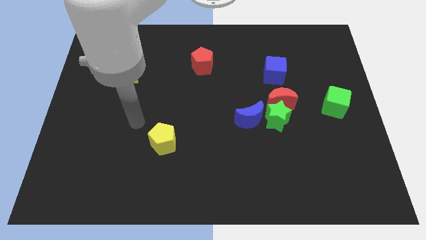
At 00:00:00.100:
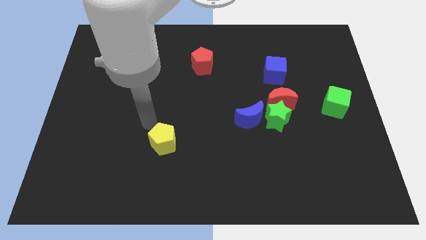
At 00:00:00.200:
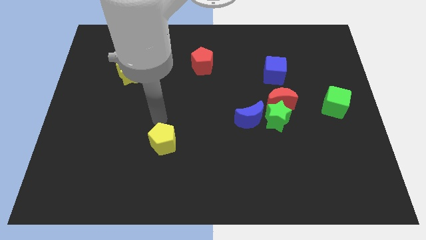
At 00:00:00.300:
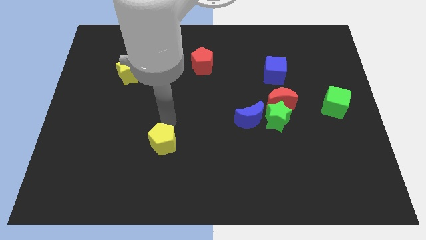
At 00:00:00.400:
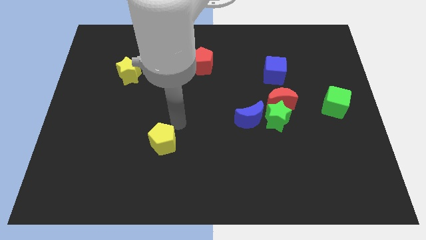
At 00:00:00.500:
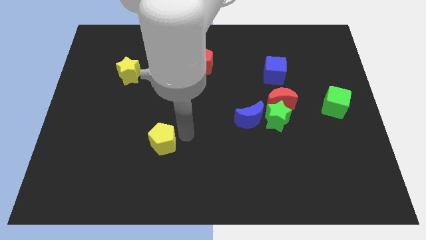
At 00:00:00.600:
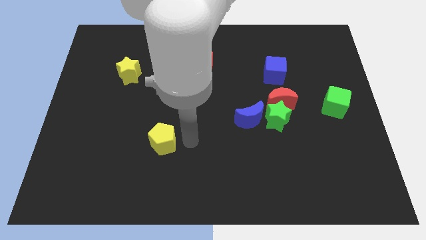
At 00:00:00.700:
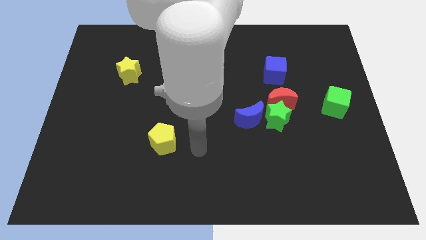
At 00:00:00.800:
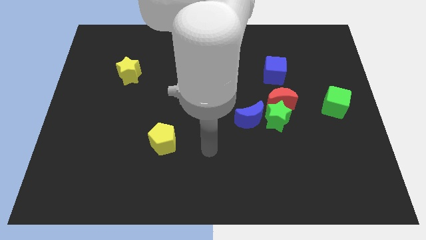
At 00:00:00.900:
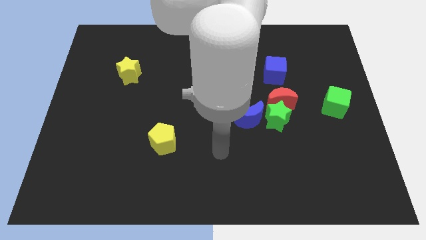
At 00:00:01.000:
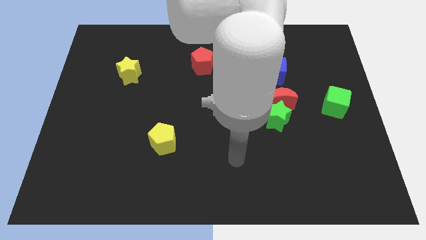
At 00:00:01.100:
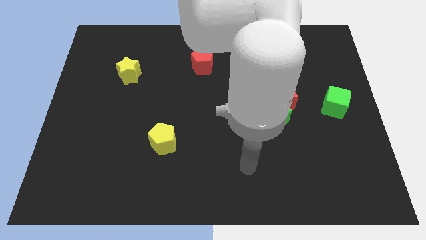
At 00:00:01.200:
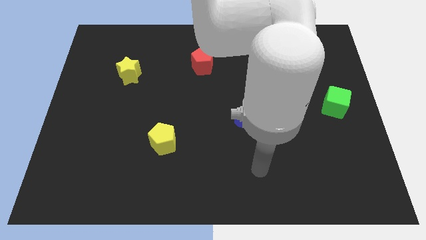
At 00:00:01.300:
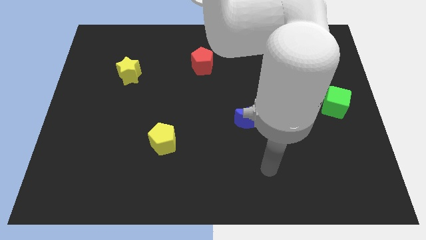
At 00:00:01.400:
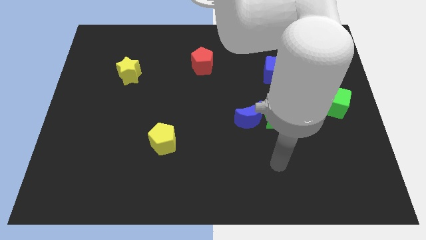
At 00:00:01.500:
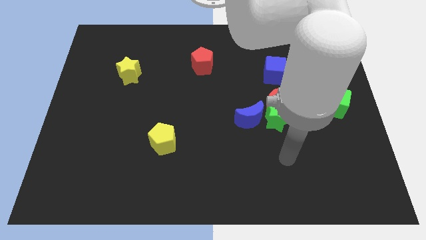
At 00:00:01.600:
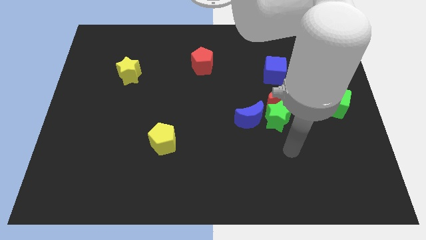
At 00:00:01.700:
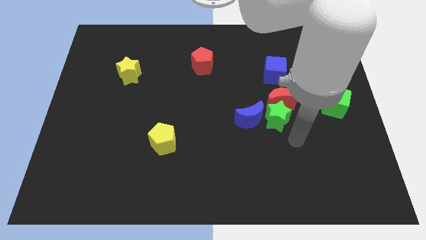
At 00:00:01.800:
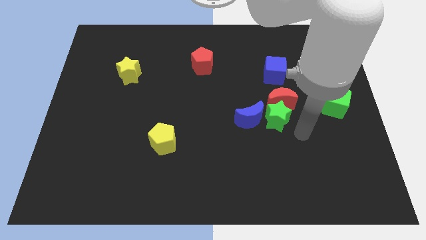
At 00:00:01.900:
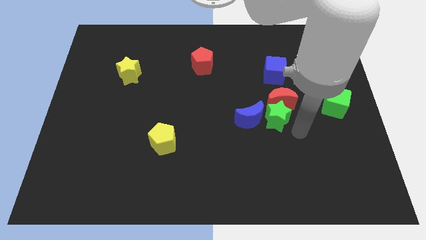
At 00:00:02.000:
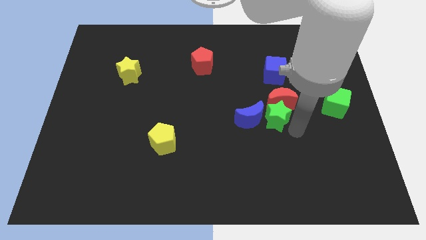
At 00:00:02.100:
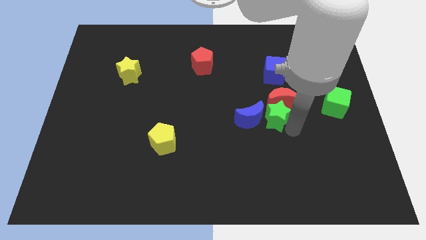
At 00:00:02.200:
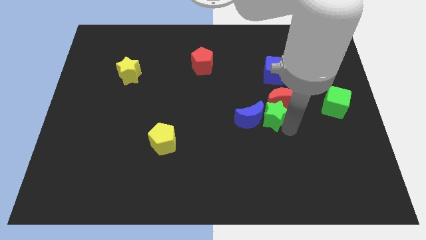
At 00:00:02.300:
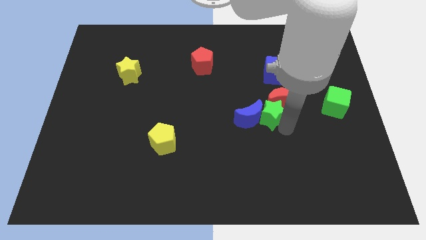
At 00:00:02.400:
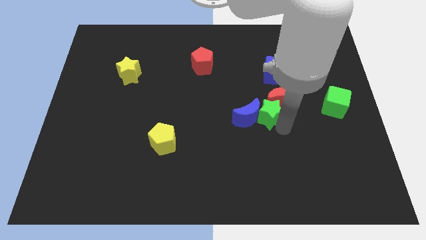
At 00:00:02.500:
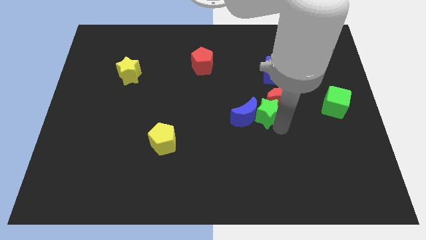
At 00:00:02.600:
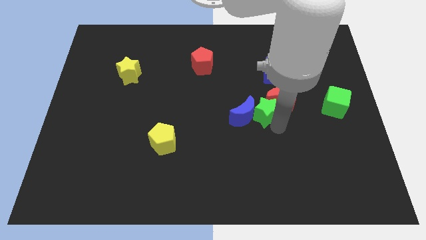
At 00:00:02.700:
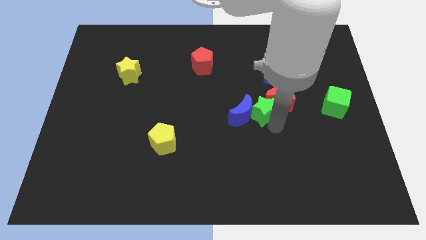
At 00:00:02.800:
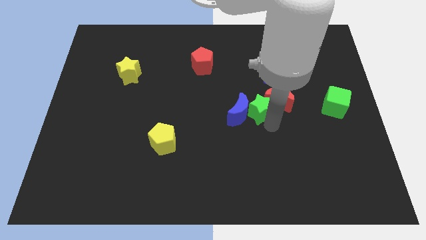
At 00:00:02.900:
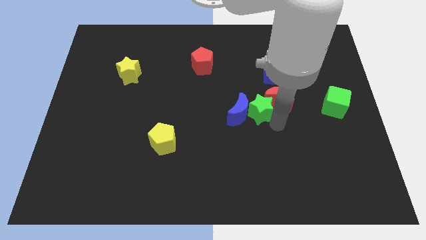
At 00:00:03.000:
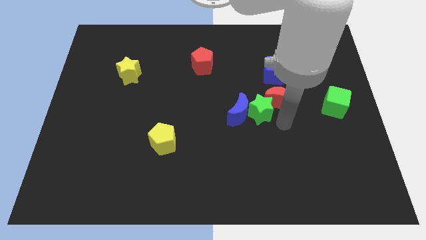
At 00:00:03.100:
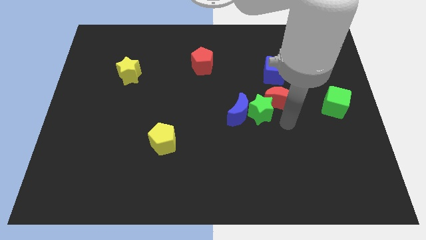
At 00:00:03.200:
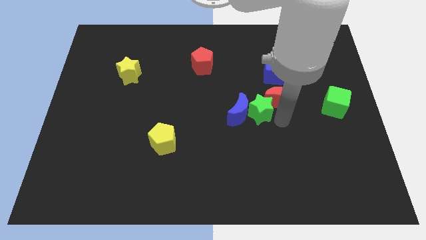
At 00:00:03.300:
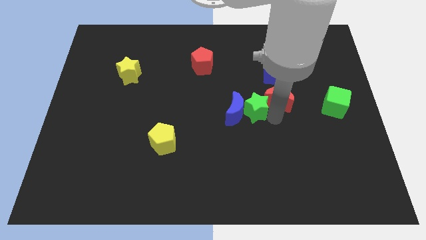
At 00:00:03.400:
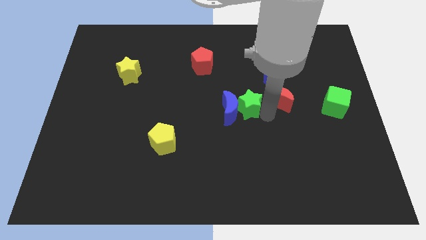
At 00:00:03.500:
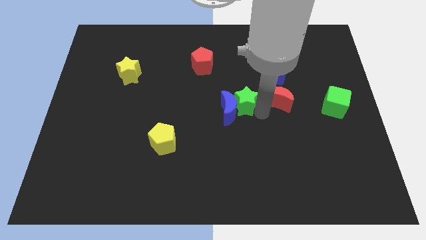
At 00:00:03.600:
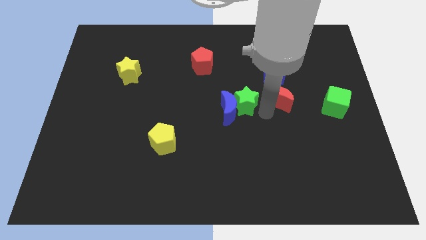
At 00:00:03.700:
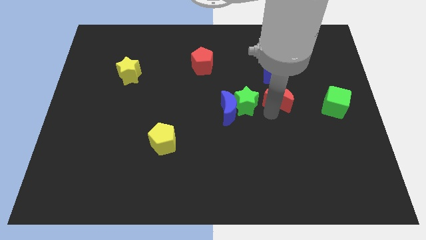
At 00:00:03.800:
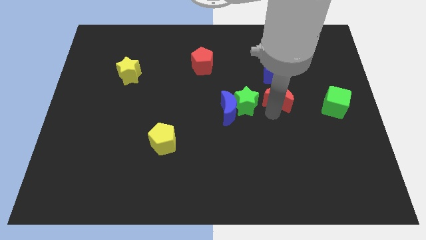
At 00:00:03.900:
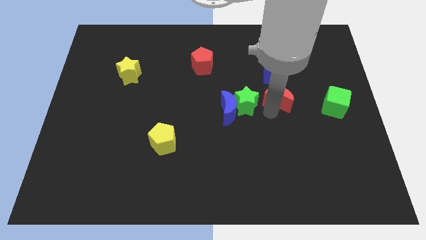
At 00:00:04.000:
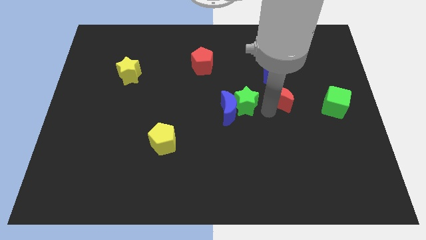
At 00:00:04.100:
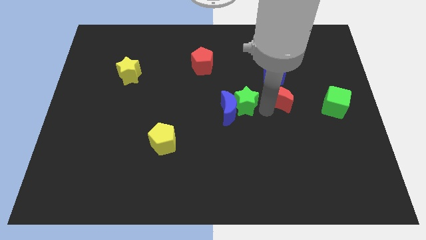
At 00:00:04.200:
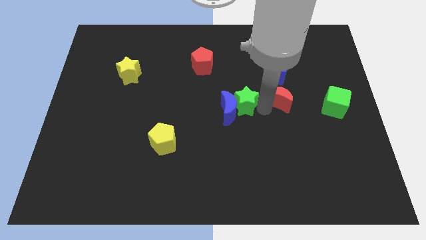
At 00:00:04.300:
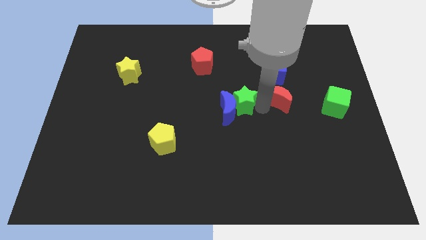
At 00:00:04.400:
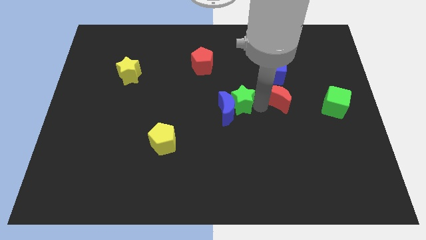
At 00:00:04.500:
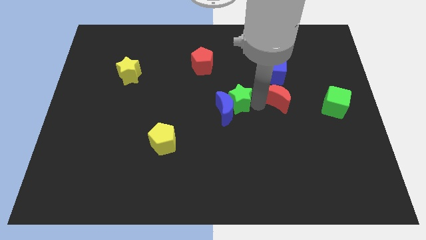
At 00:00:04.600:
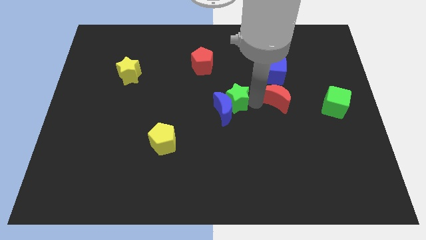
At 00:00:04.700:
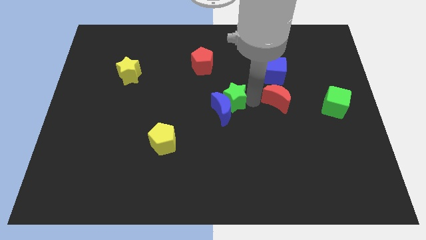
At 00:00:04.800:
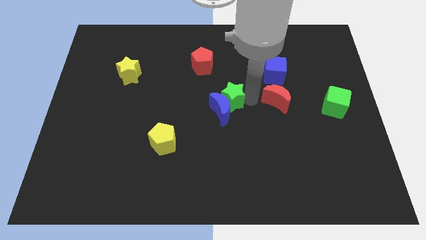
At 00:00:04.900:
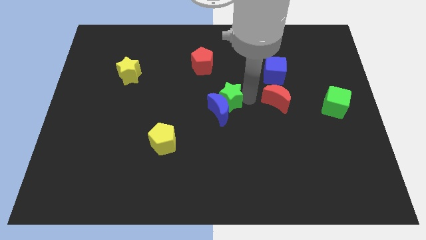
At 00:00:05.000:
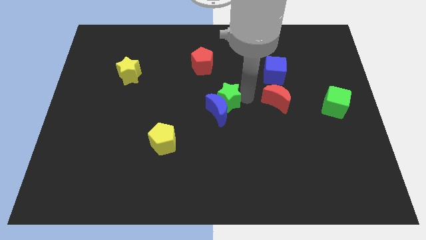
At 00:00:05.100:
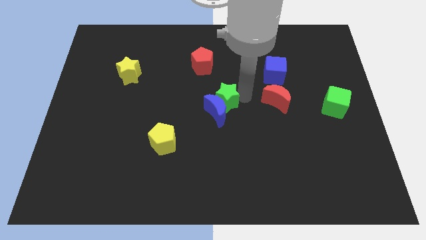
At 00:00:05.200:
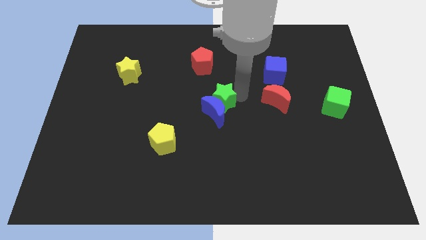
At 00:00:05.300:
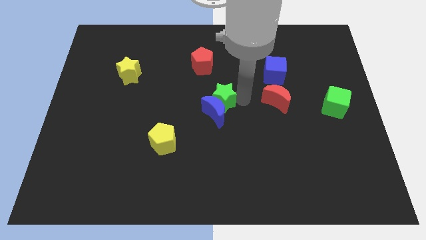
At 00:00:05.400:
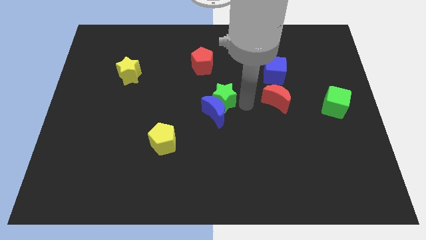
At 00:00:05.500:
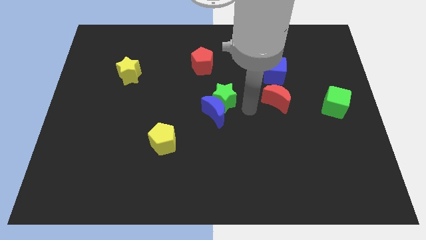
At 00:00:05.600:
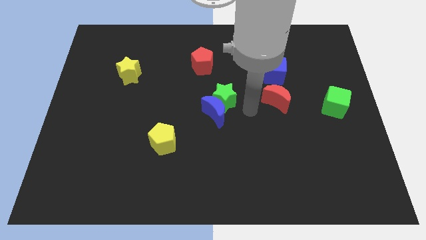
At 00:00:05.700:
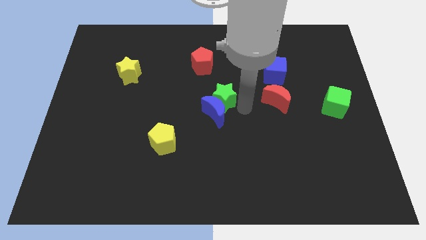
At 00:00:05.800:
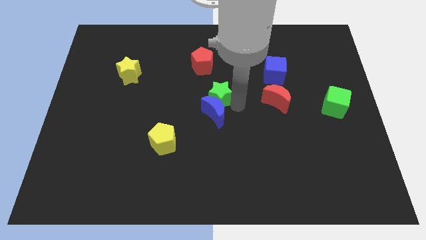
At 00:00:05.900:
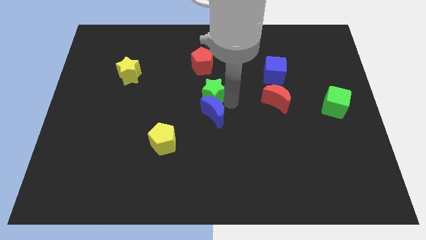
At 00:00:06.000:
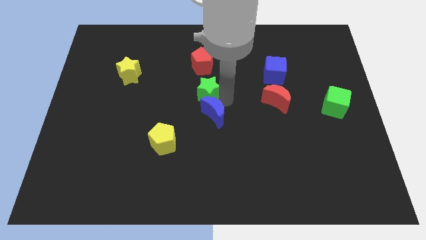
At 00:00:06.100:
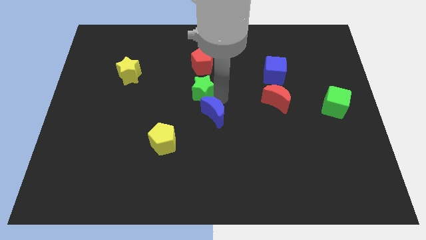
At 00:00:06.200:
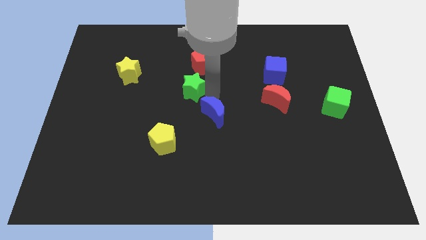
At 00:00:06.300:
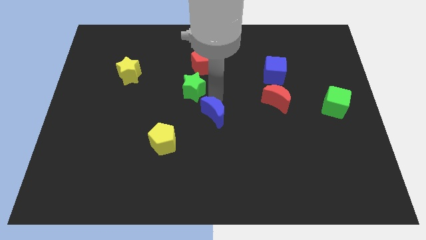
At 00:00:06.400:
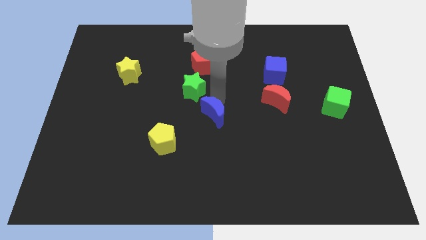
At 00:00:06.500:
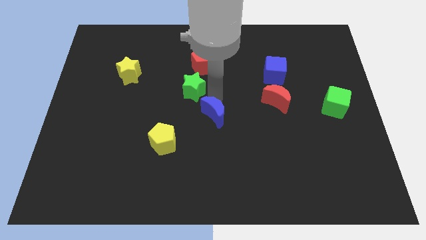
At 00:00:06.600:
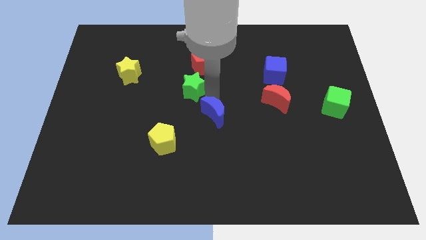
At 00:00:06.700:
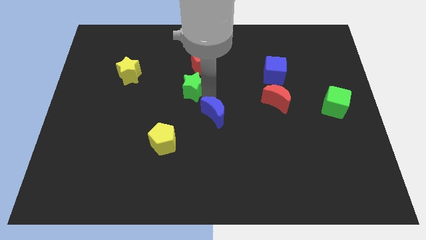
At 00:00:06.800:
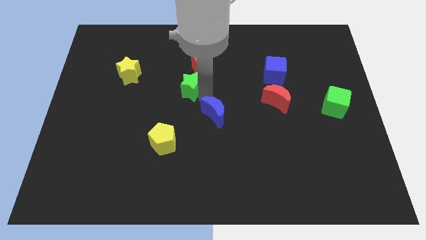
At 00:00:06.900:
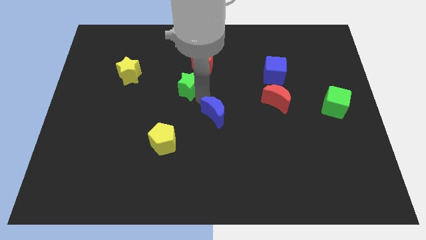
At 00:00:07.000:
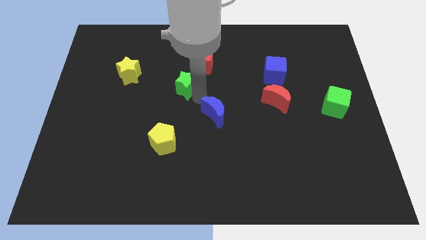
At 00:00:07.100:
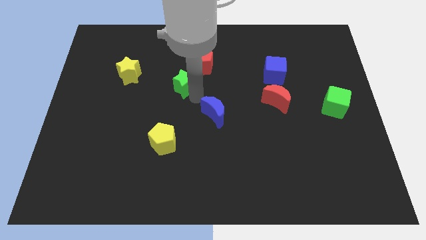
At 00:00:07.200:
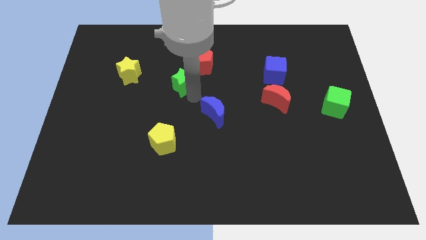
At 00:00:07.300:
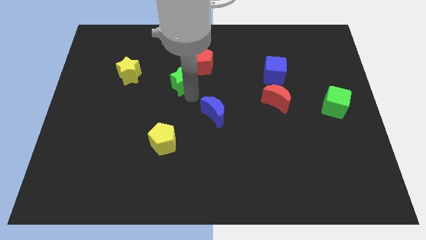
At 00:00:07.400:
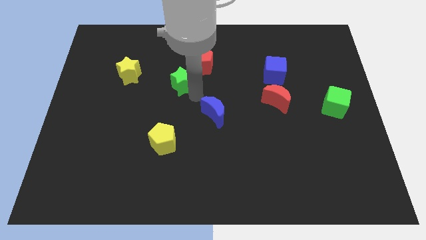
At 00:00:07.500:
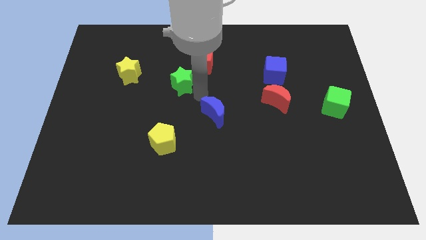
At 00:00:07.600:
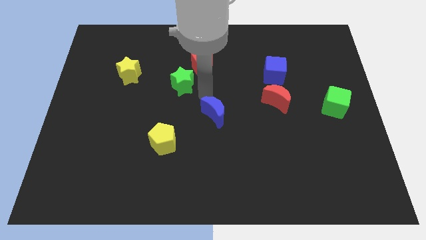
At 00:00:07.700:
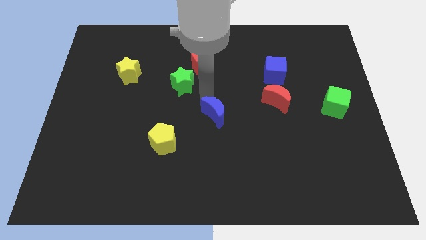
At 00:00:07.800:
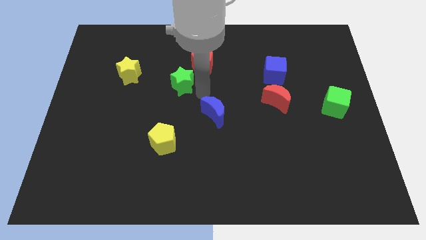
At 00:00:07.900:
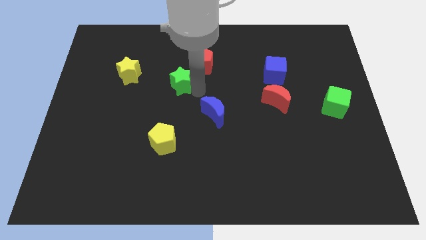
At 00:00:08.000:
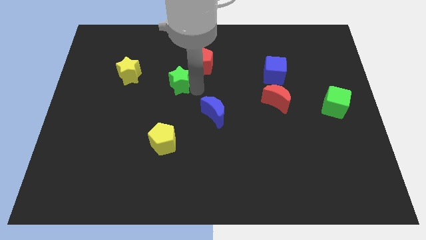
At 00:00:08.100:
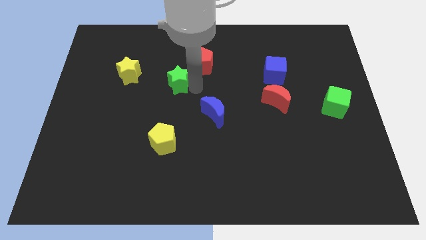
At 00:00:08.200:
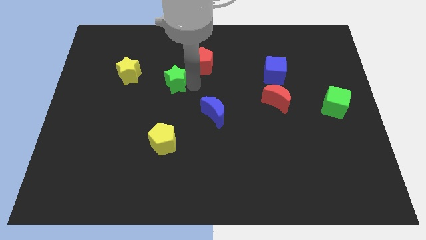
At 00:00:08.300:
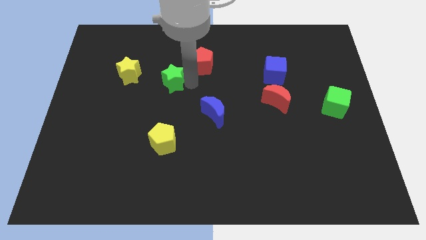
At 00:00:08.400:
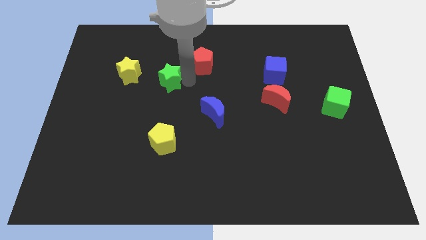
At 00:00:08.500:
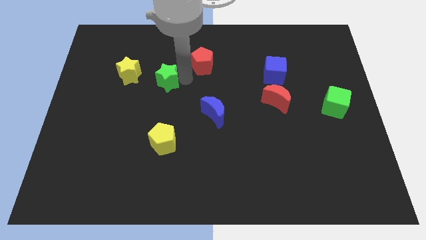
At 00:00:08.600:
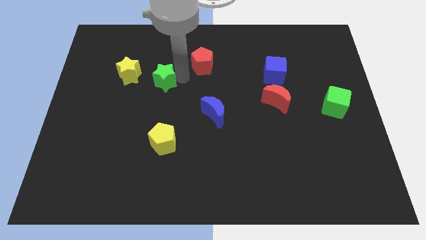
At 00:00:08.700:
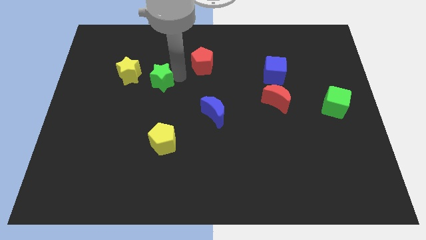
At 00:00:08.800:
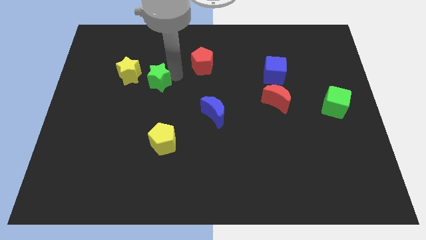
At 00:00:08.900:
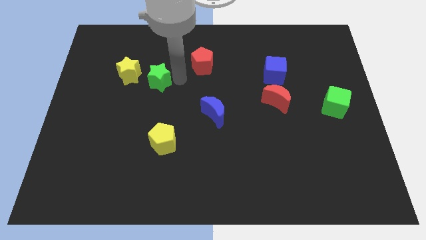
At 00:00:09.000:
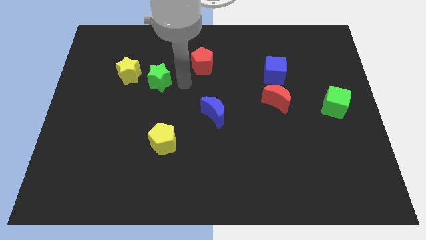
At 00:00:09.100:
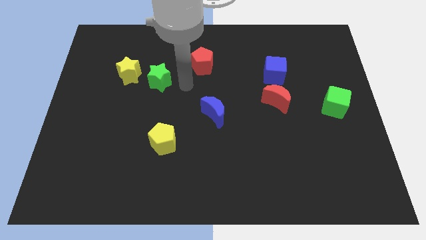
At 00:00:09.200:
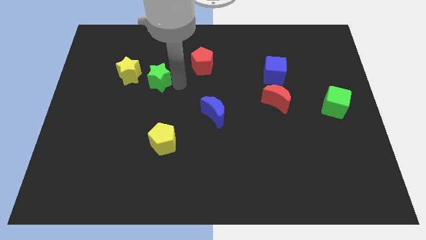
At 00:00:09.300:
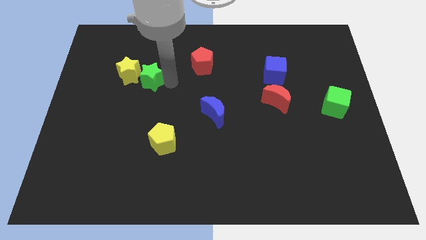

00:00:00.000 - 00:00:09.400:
push the green star towards the yellow star
